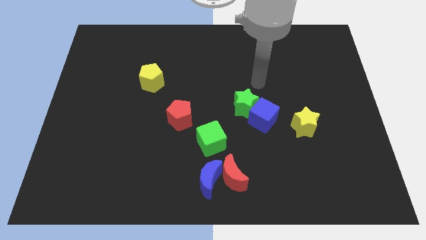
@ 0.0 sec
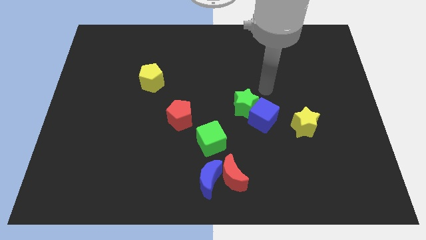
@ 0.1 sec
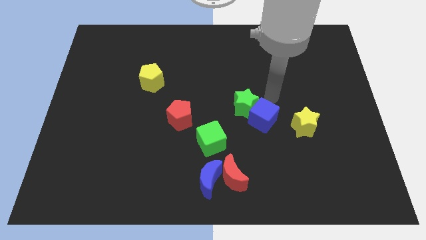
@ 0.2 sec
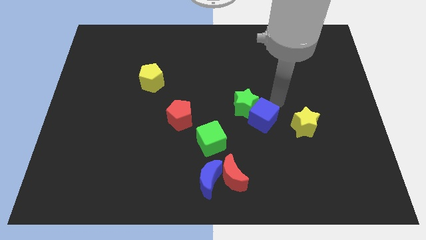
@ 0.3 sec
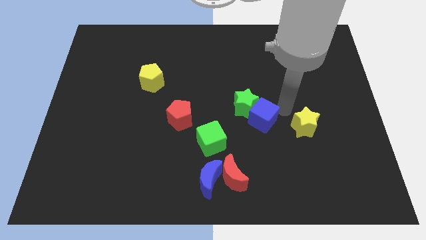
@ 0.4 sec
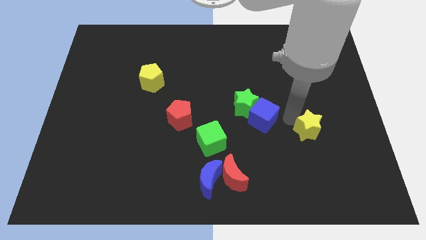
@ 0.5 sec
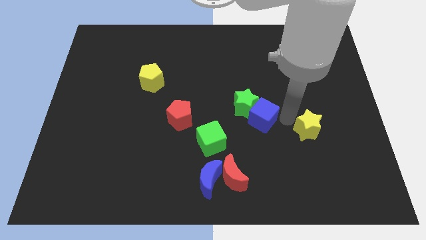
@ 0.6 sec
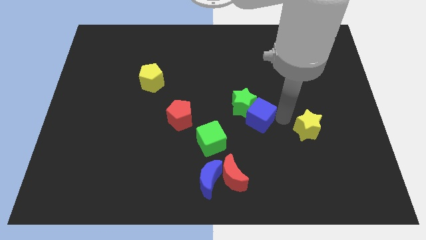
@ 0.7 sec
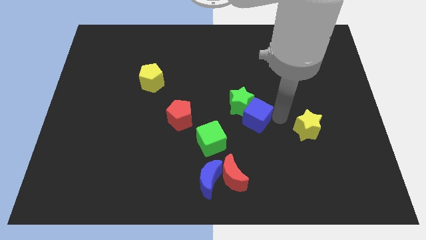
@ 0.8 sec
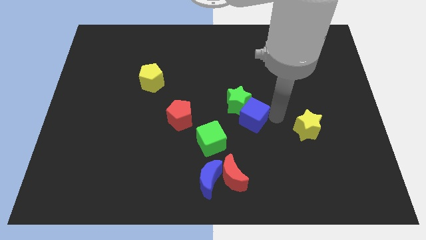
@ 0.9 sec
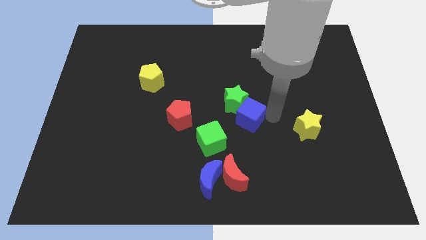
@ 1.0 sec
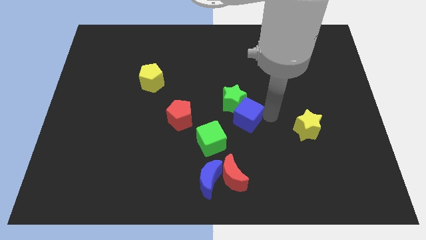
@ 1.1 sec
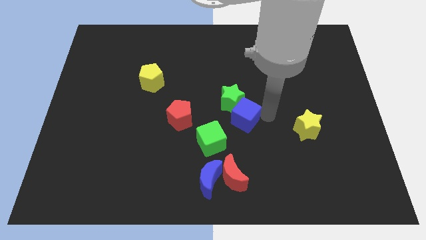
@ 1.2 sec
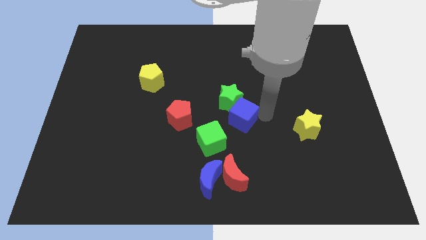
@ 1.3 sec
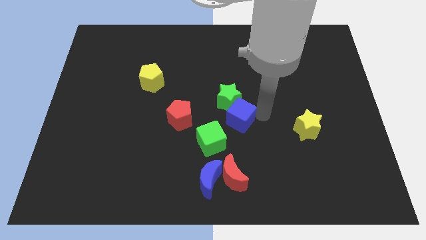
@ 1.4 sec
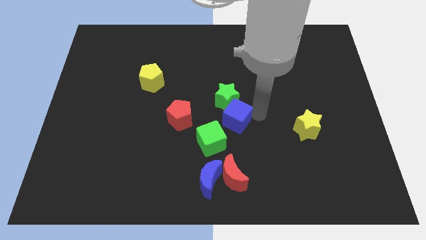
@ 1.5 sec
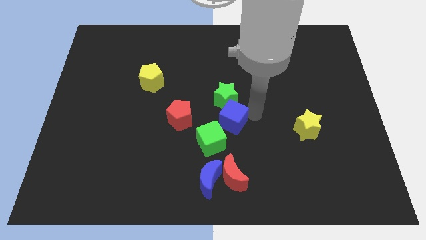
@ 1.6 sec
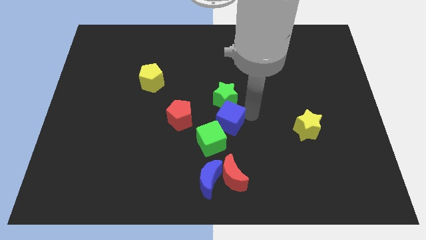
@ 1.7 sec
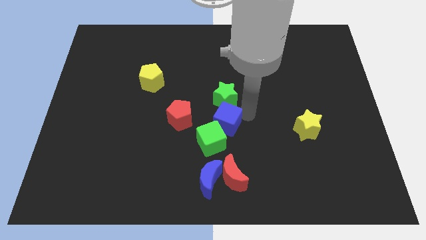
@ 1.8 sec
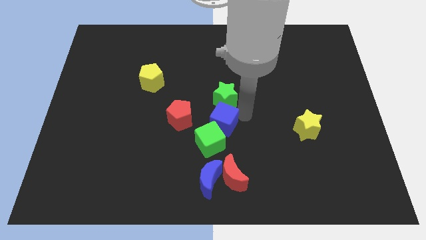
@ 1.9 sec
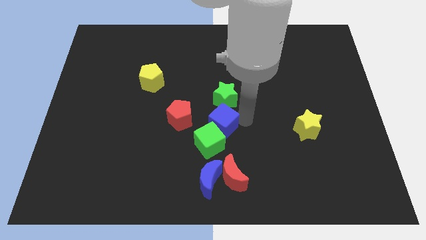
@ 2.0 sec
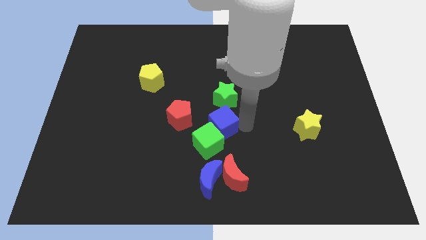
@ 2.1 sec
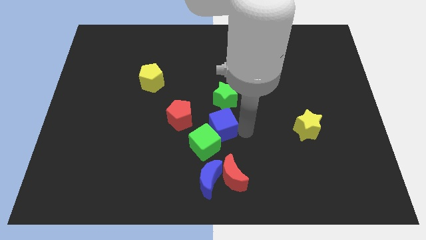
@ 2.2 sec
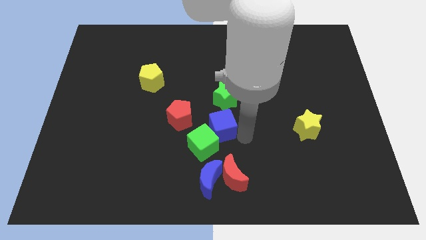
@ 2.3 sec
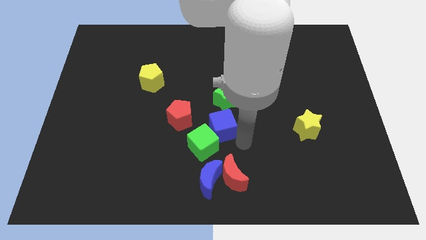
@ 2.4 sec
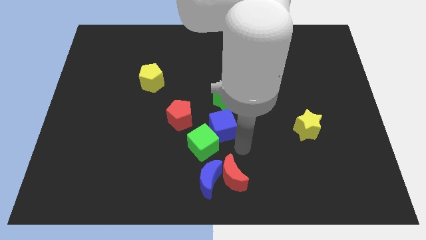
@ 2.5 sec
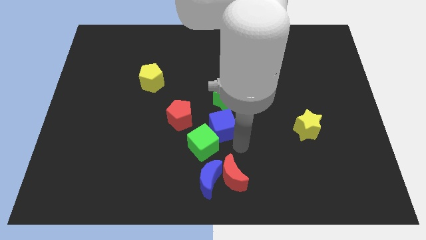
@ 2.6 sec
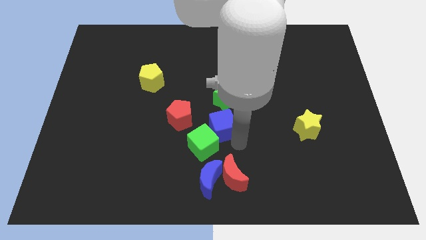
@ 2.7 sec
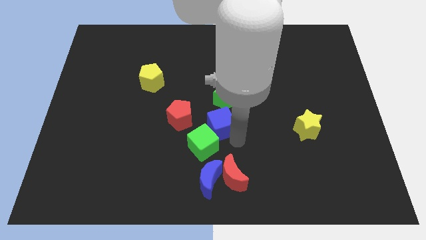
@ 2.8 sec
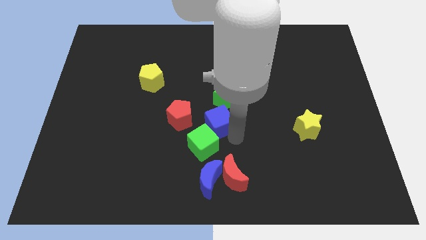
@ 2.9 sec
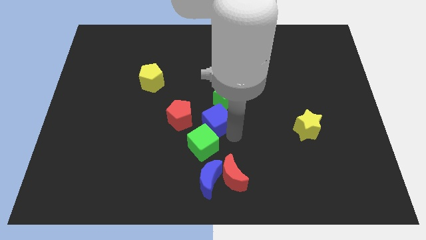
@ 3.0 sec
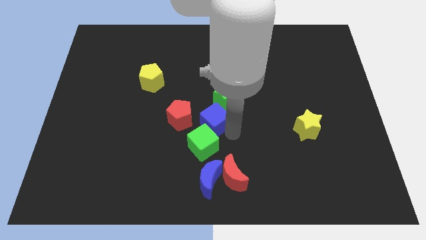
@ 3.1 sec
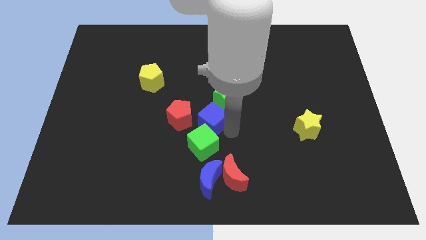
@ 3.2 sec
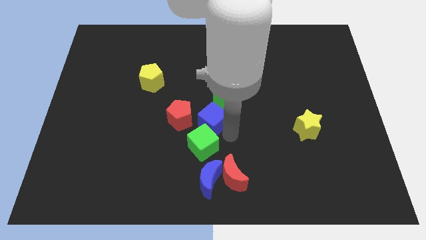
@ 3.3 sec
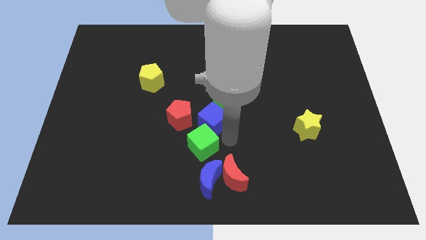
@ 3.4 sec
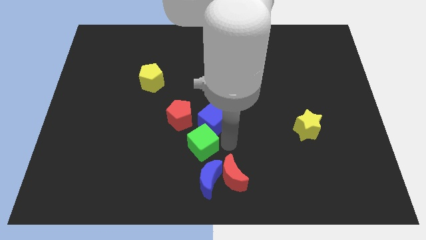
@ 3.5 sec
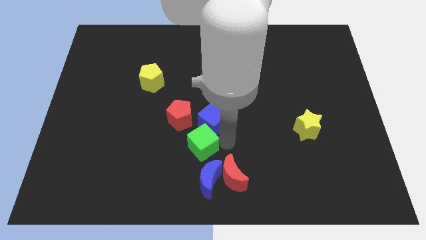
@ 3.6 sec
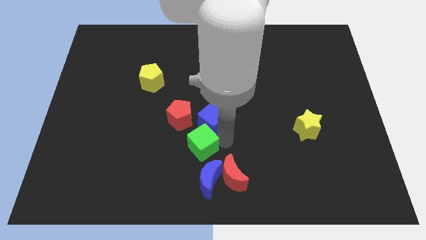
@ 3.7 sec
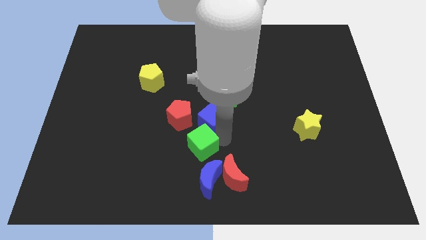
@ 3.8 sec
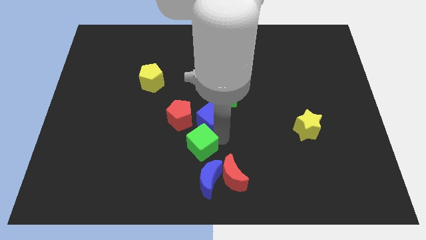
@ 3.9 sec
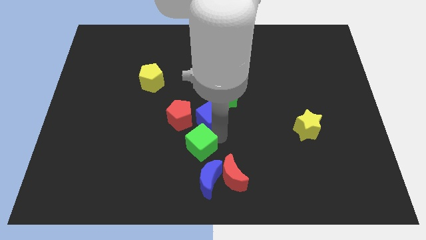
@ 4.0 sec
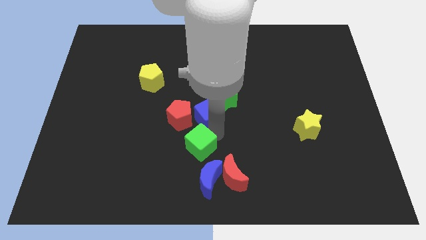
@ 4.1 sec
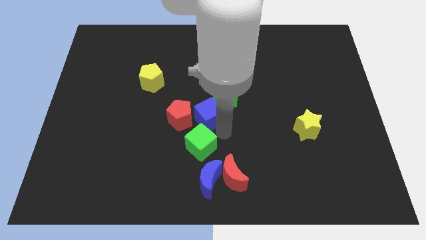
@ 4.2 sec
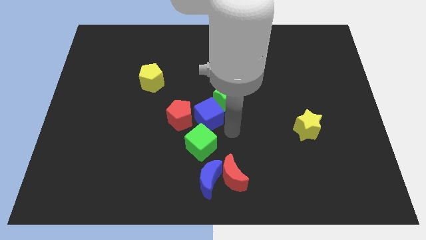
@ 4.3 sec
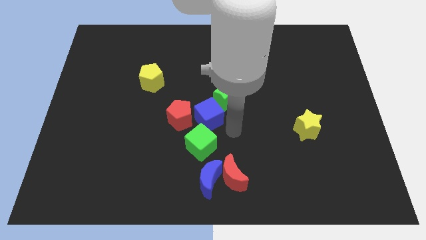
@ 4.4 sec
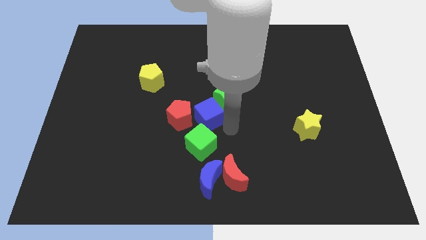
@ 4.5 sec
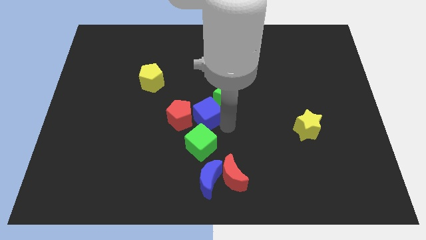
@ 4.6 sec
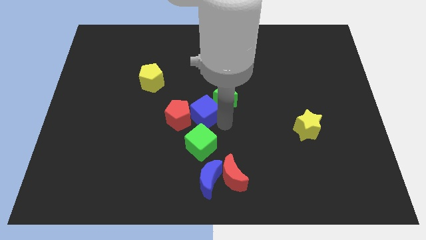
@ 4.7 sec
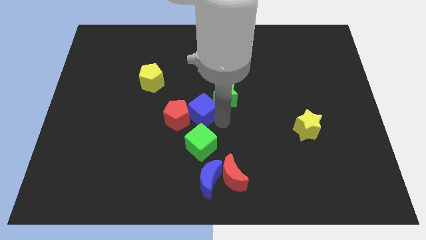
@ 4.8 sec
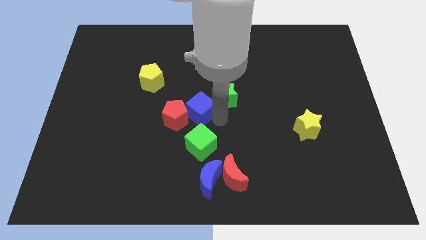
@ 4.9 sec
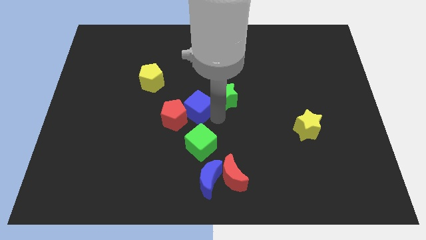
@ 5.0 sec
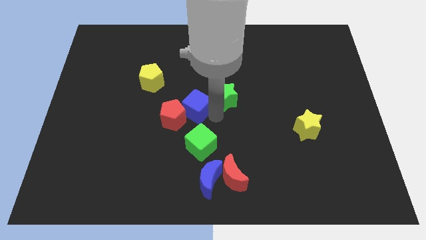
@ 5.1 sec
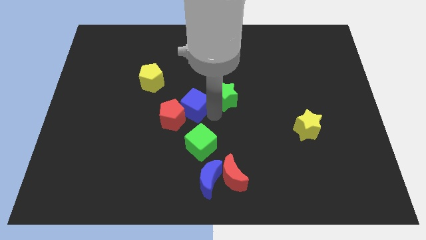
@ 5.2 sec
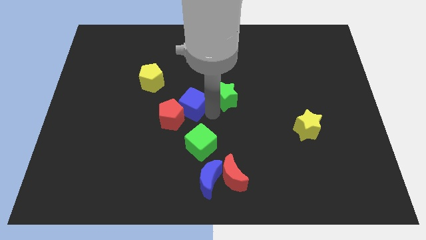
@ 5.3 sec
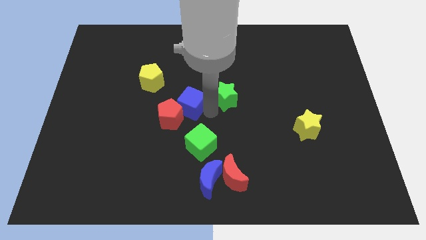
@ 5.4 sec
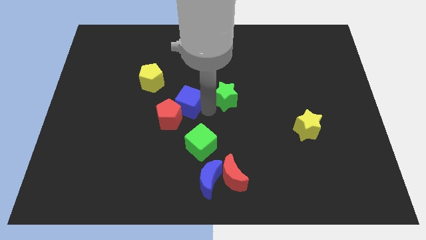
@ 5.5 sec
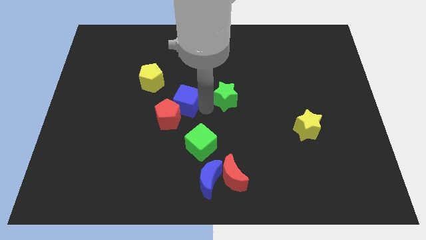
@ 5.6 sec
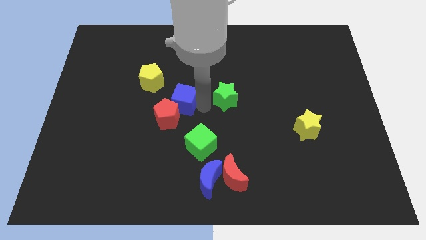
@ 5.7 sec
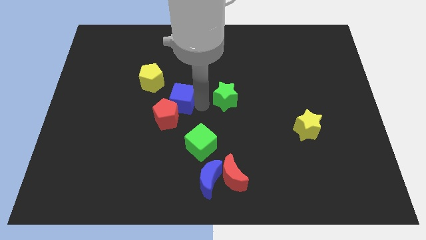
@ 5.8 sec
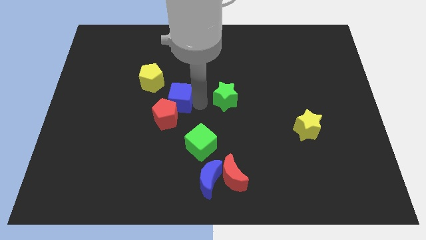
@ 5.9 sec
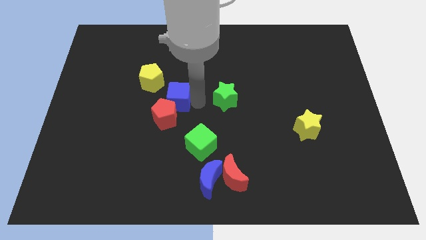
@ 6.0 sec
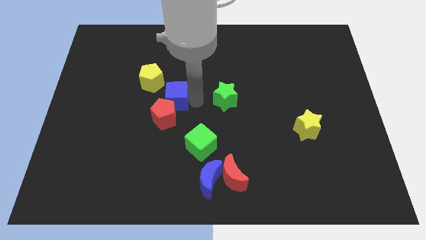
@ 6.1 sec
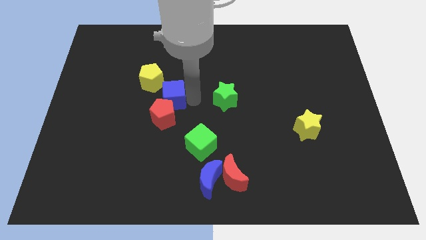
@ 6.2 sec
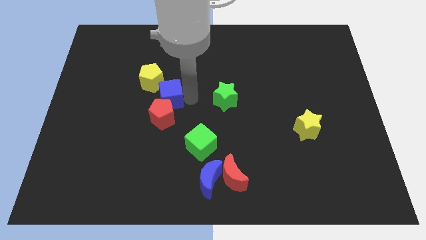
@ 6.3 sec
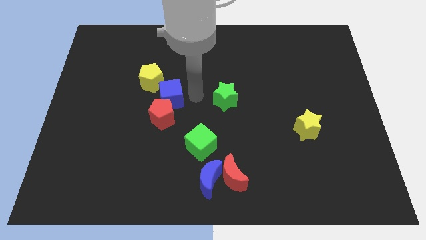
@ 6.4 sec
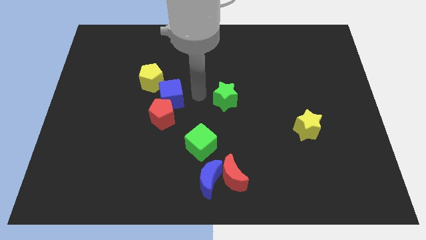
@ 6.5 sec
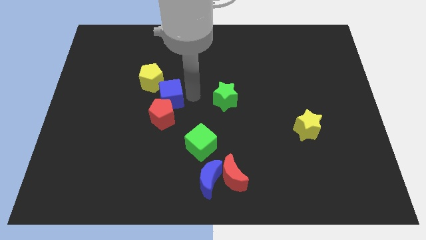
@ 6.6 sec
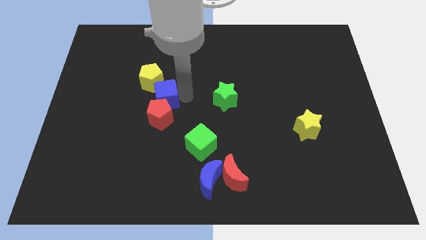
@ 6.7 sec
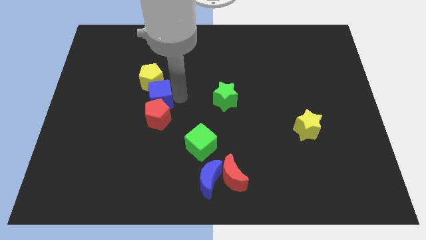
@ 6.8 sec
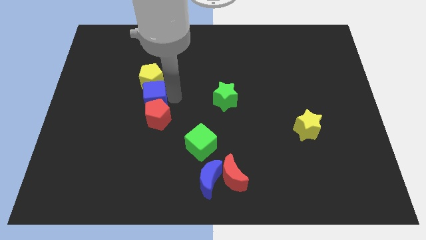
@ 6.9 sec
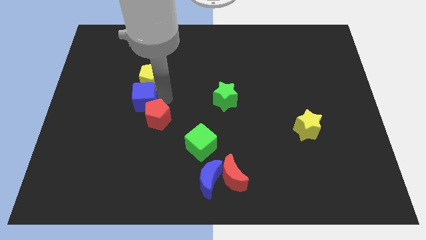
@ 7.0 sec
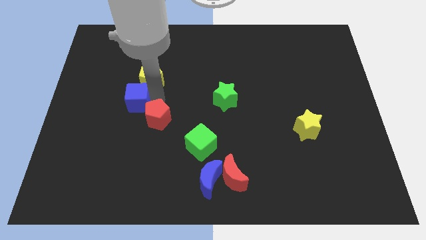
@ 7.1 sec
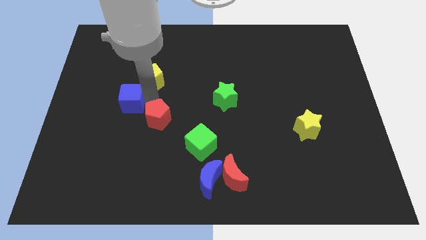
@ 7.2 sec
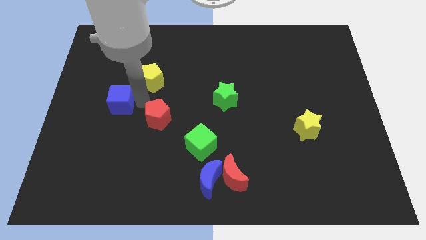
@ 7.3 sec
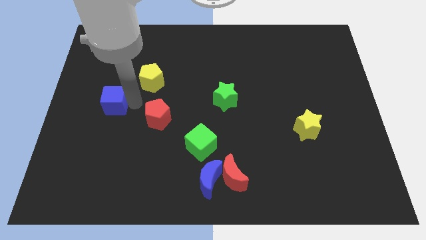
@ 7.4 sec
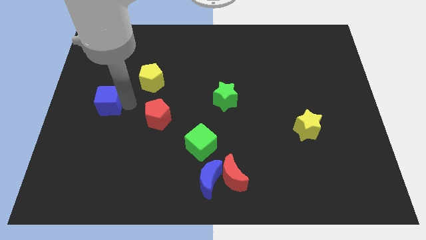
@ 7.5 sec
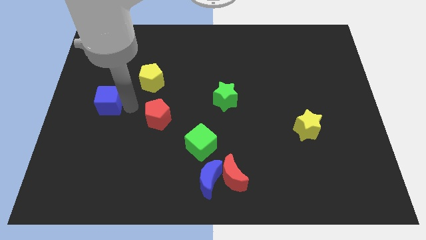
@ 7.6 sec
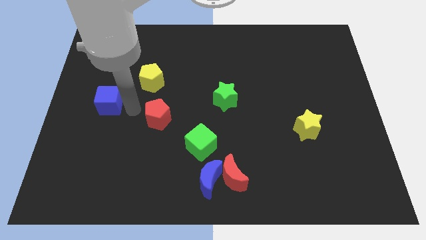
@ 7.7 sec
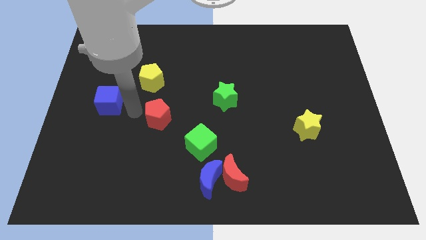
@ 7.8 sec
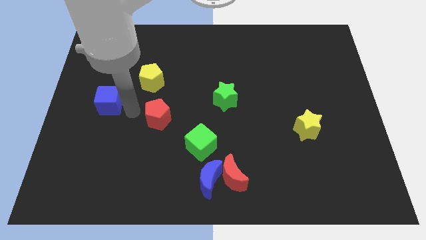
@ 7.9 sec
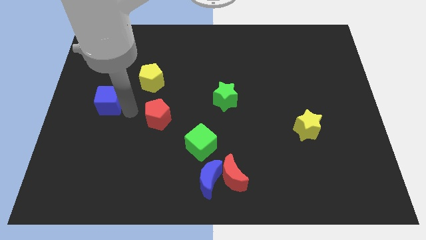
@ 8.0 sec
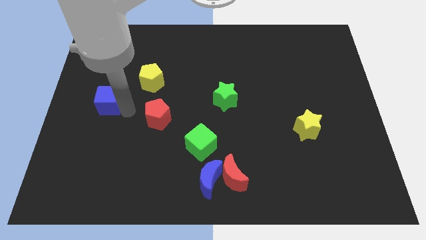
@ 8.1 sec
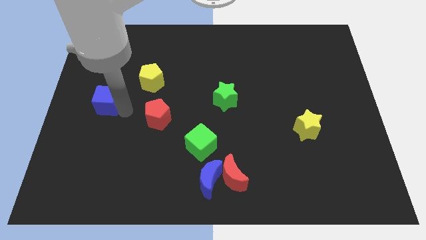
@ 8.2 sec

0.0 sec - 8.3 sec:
push the blue cube to the left side
